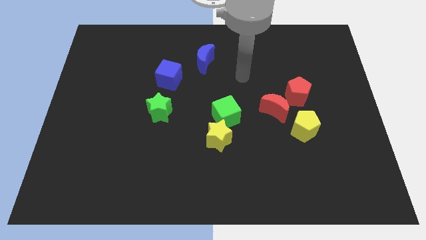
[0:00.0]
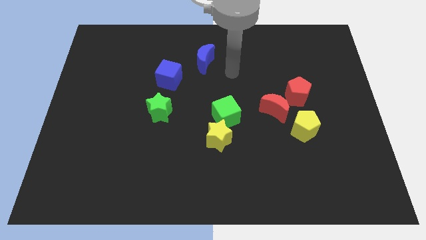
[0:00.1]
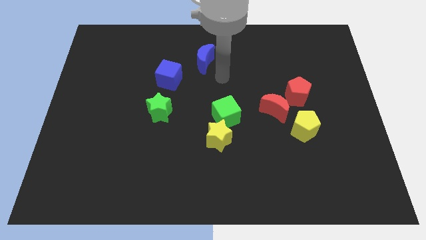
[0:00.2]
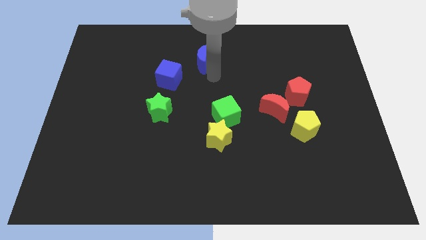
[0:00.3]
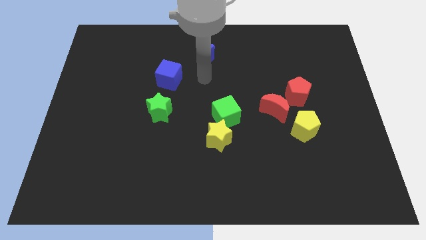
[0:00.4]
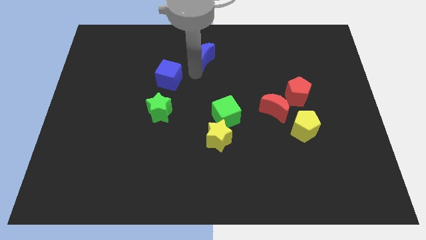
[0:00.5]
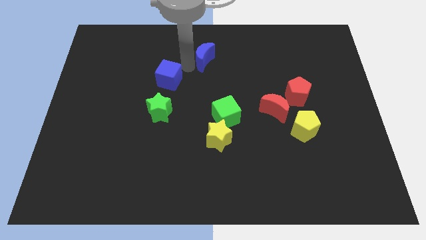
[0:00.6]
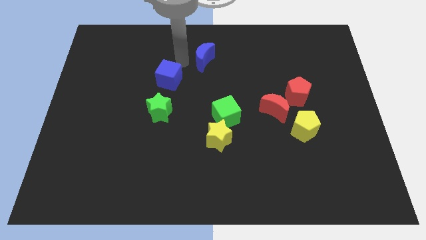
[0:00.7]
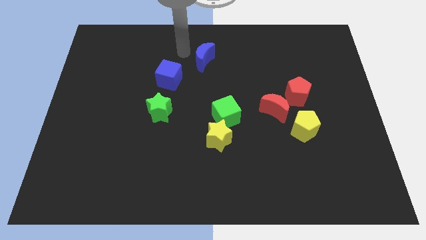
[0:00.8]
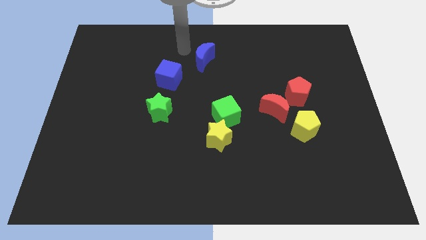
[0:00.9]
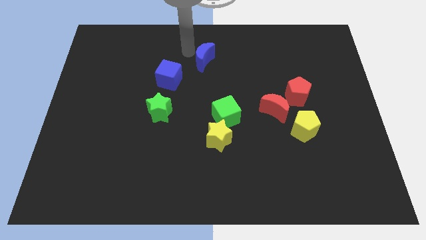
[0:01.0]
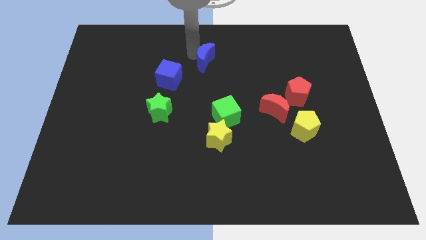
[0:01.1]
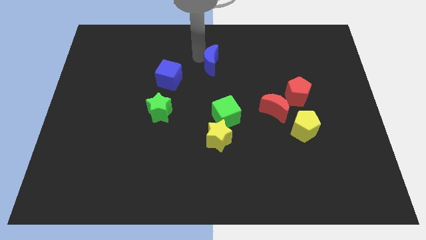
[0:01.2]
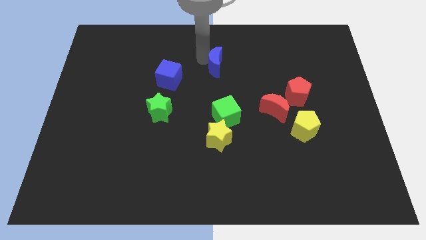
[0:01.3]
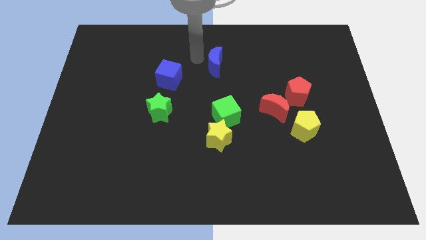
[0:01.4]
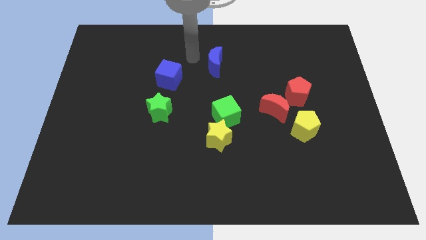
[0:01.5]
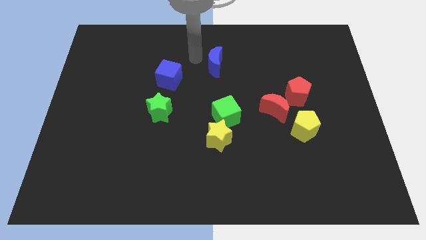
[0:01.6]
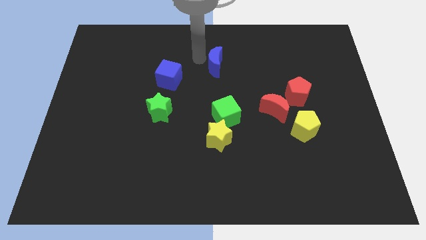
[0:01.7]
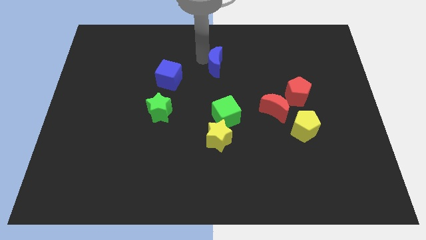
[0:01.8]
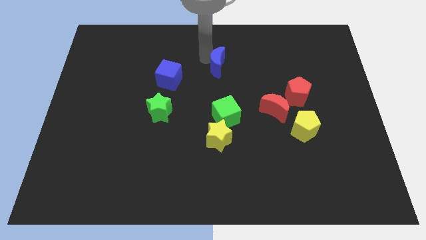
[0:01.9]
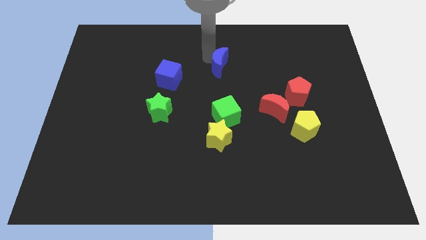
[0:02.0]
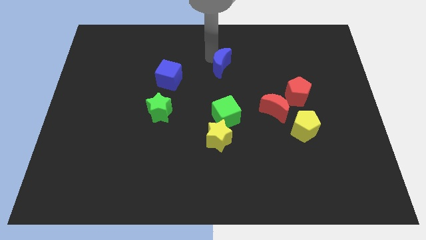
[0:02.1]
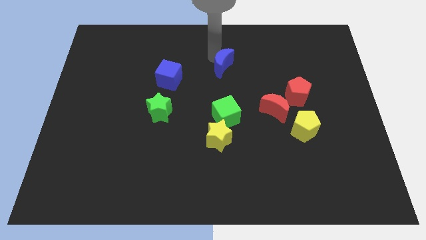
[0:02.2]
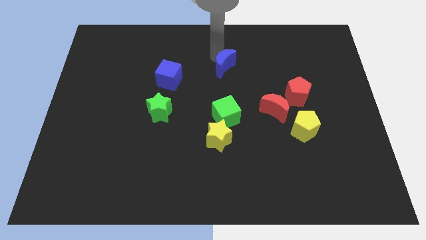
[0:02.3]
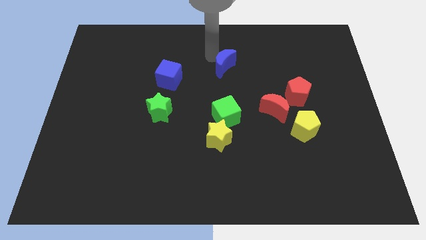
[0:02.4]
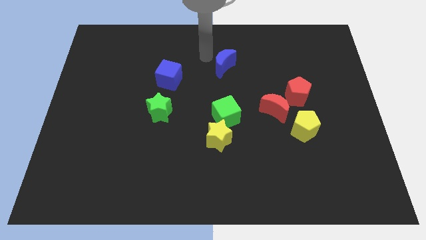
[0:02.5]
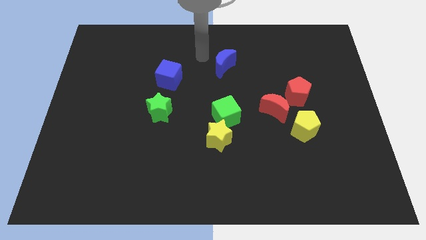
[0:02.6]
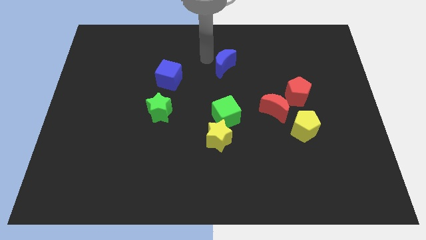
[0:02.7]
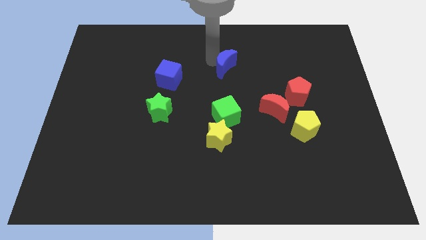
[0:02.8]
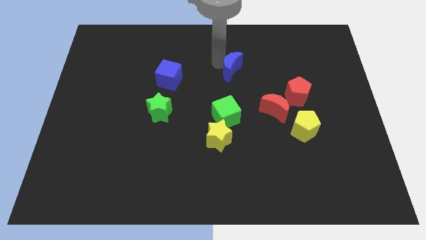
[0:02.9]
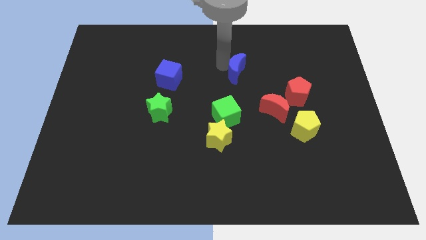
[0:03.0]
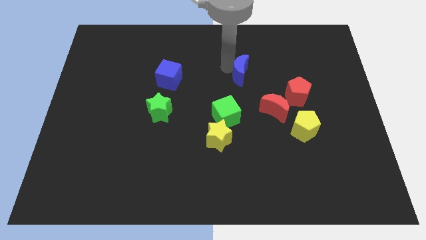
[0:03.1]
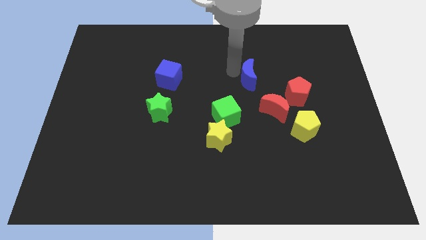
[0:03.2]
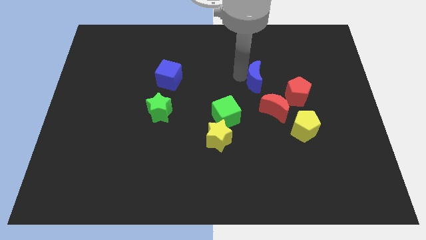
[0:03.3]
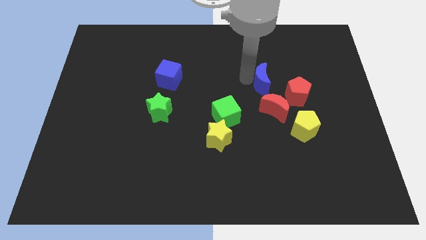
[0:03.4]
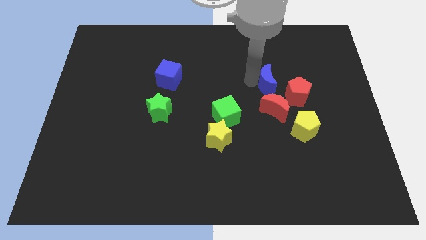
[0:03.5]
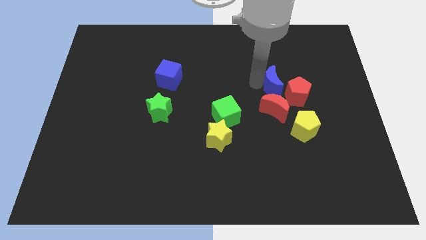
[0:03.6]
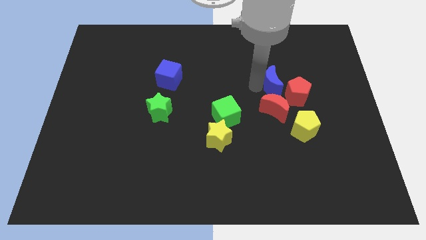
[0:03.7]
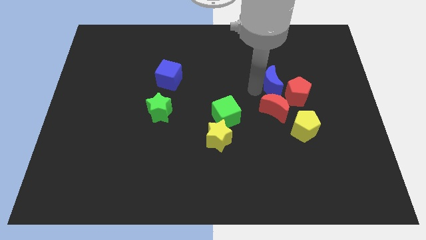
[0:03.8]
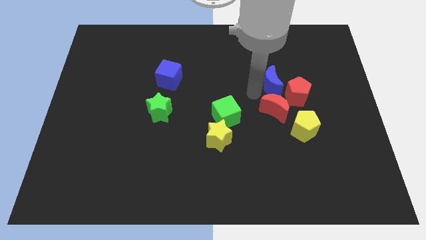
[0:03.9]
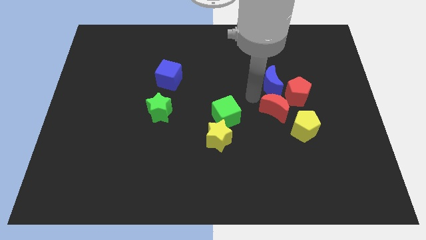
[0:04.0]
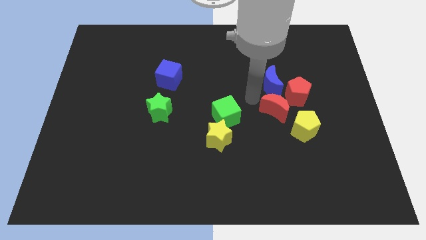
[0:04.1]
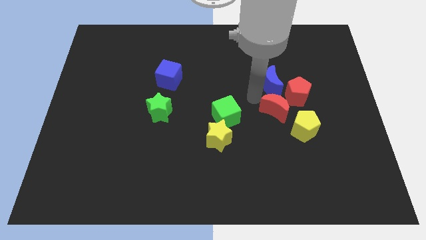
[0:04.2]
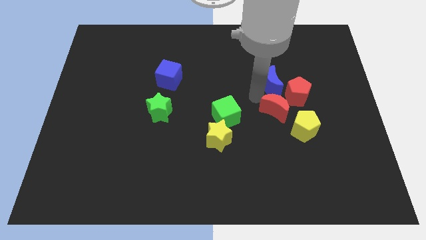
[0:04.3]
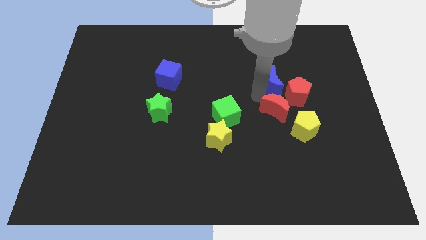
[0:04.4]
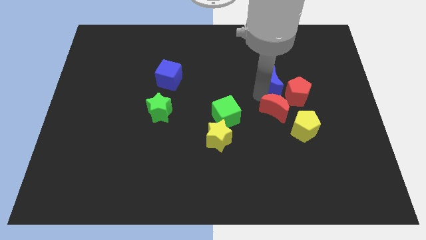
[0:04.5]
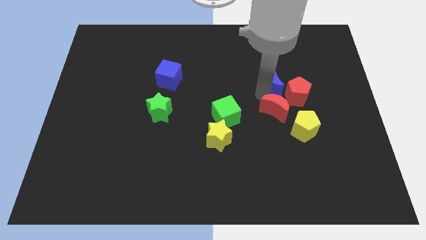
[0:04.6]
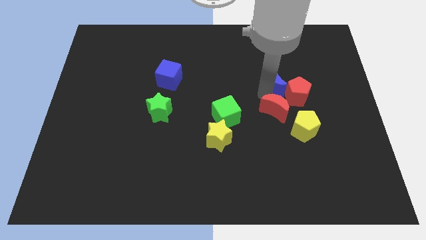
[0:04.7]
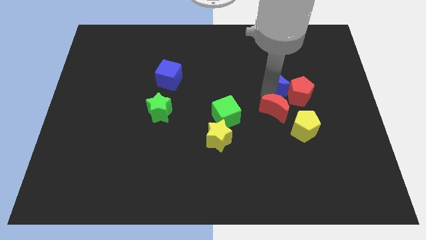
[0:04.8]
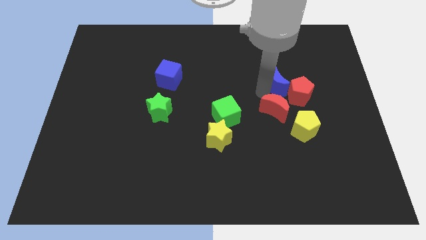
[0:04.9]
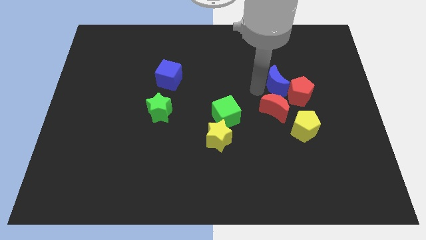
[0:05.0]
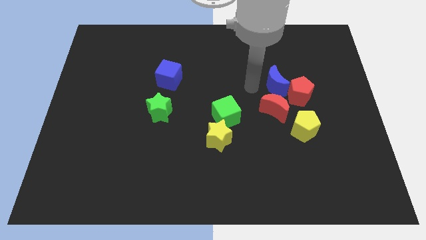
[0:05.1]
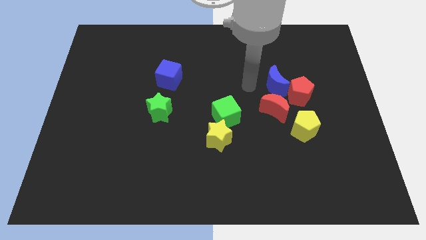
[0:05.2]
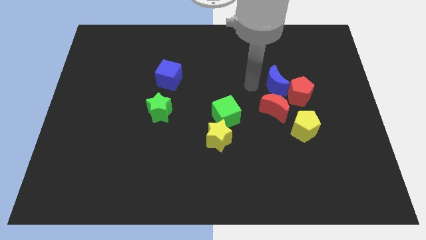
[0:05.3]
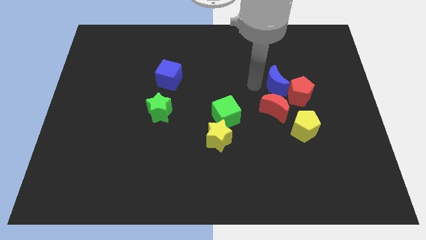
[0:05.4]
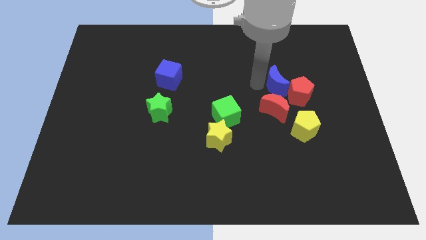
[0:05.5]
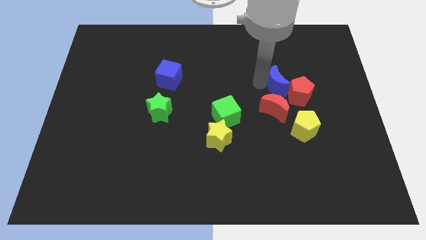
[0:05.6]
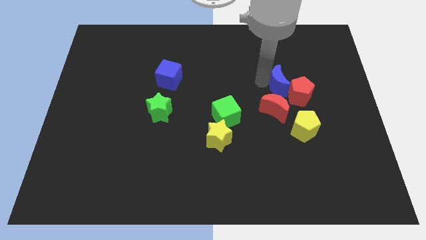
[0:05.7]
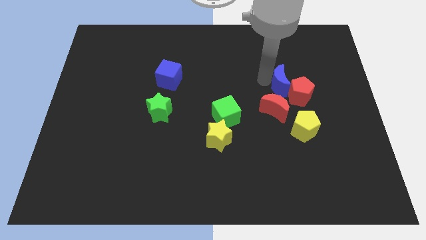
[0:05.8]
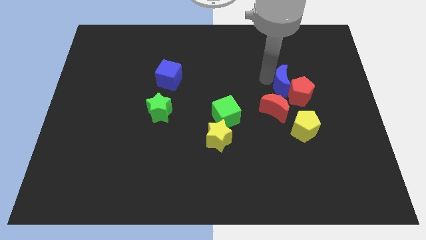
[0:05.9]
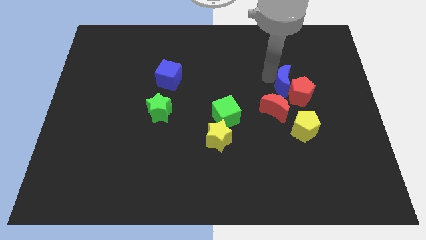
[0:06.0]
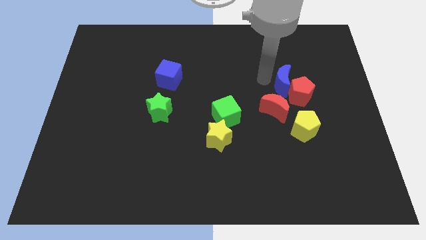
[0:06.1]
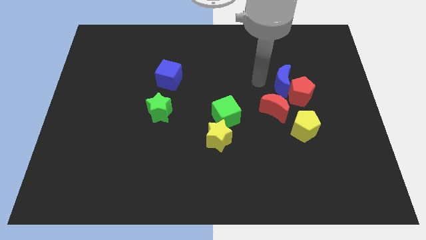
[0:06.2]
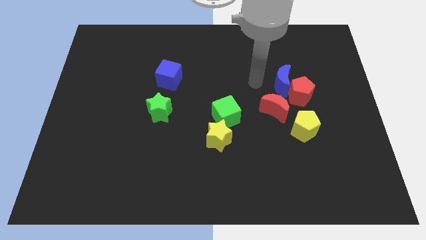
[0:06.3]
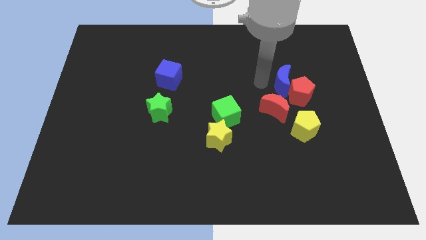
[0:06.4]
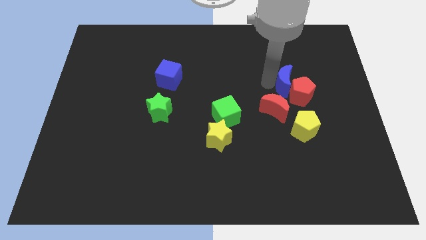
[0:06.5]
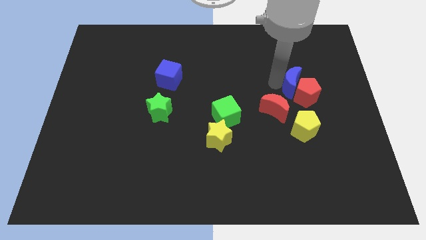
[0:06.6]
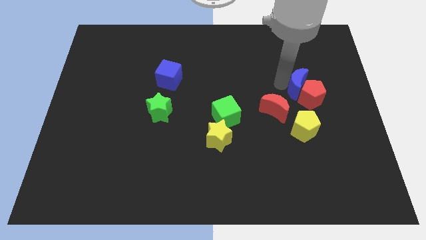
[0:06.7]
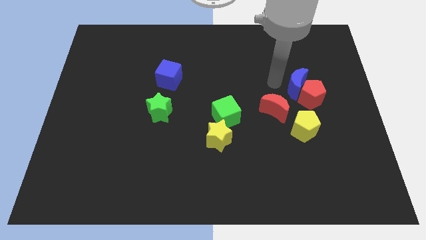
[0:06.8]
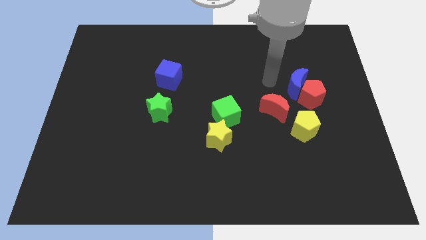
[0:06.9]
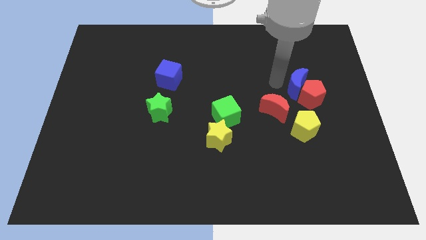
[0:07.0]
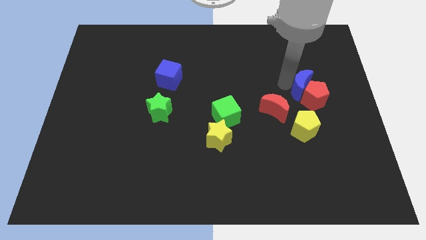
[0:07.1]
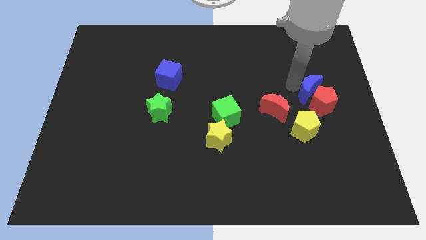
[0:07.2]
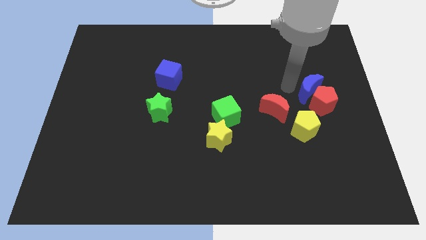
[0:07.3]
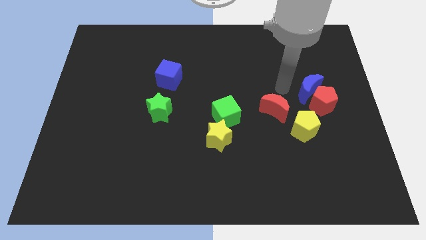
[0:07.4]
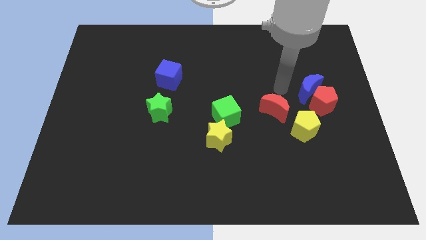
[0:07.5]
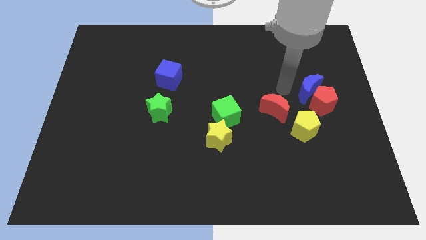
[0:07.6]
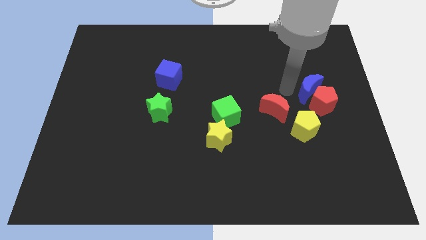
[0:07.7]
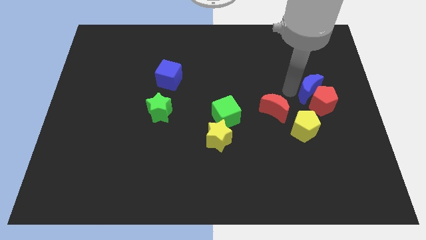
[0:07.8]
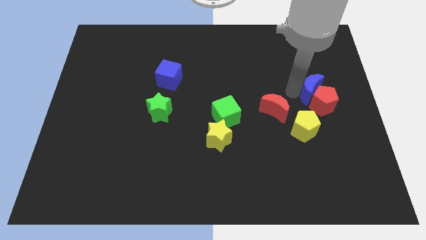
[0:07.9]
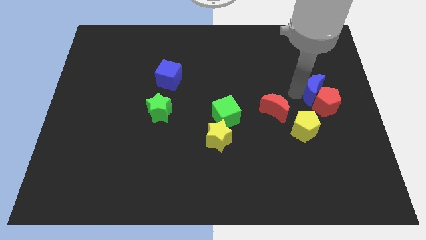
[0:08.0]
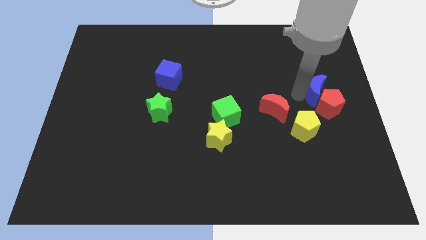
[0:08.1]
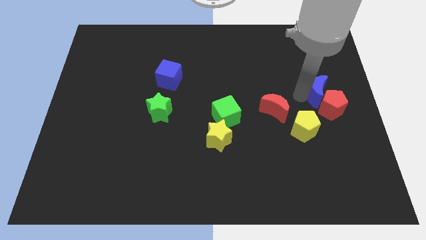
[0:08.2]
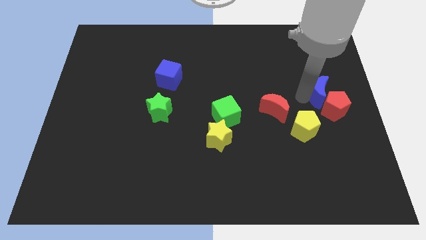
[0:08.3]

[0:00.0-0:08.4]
push the blue moon to the right side
